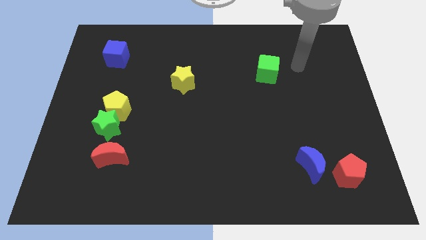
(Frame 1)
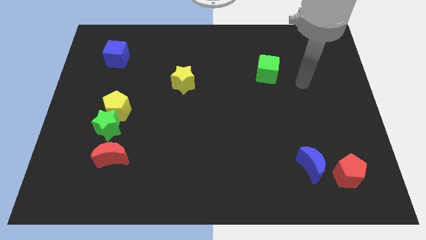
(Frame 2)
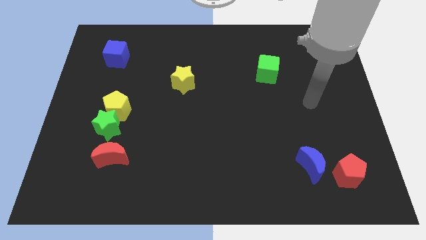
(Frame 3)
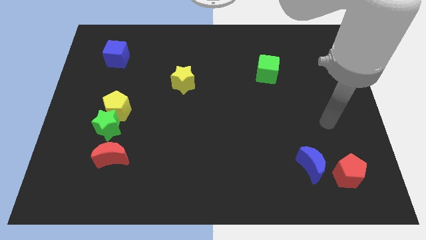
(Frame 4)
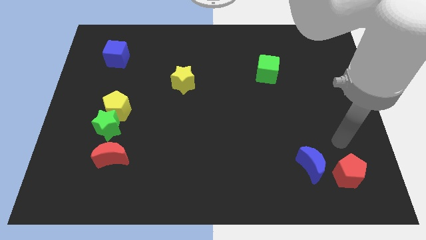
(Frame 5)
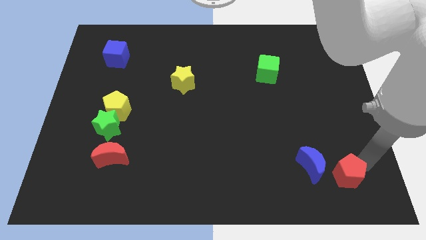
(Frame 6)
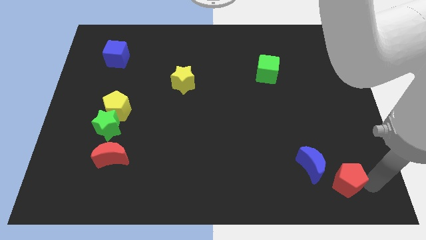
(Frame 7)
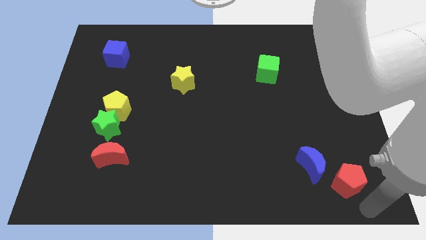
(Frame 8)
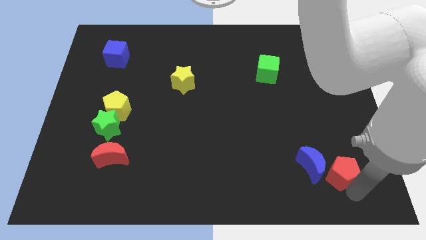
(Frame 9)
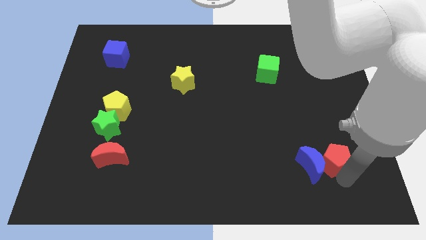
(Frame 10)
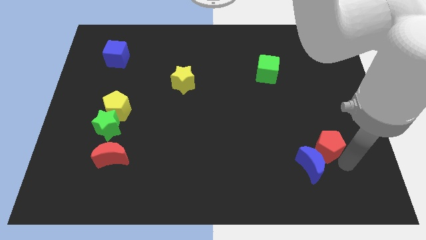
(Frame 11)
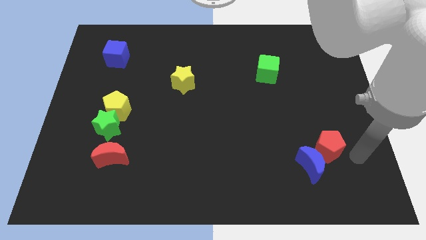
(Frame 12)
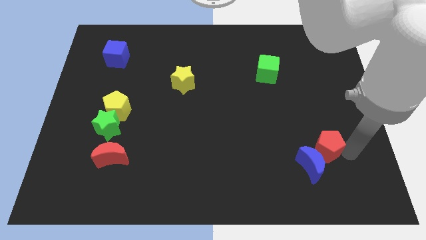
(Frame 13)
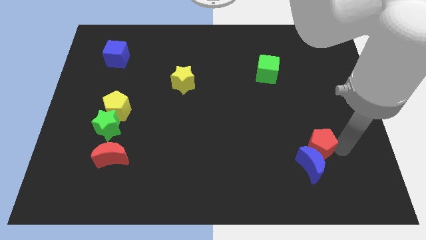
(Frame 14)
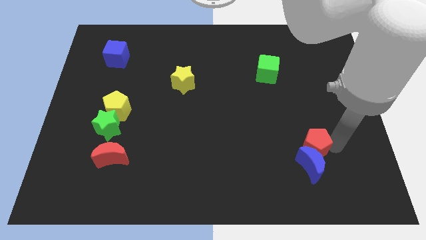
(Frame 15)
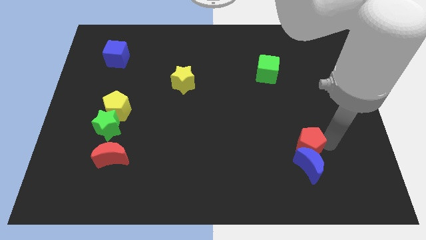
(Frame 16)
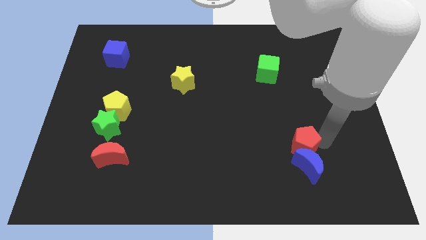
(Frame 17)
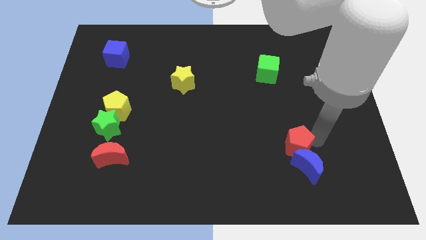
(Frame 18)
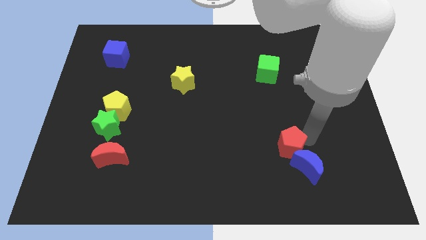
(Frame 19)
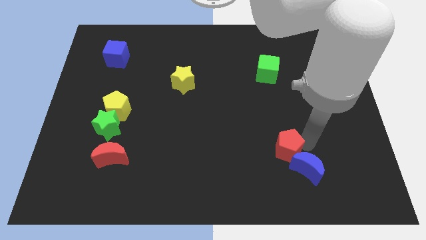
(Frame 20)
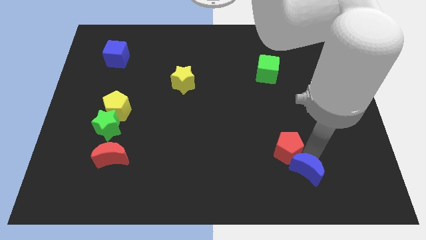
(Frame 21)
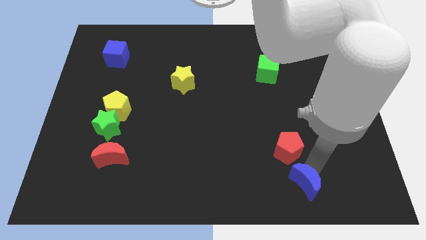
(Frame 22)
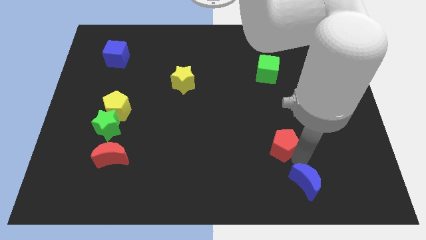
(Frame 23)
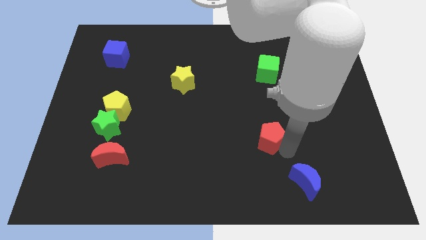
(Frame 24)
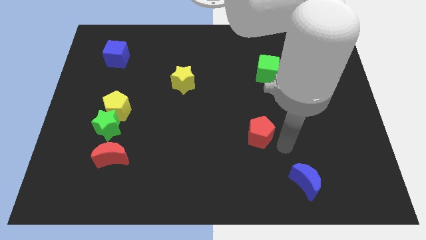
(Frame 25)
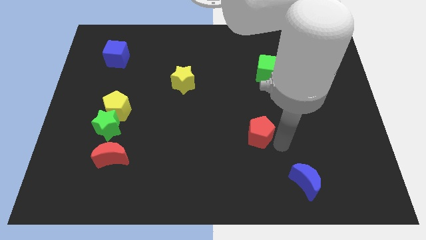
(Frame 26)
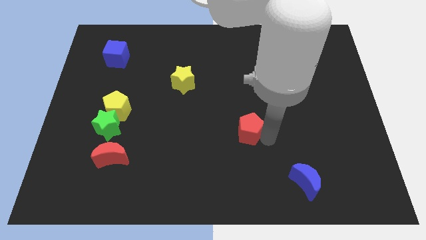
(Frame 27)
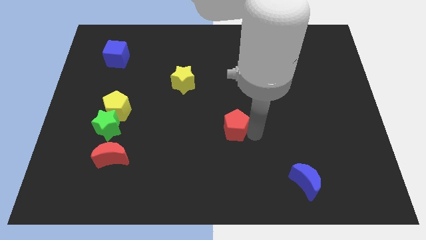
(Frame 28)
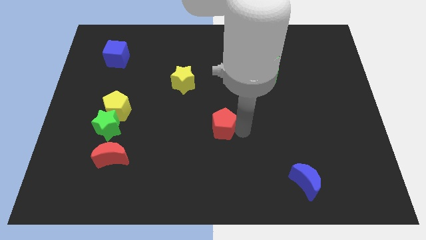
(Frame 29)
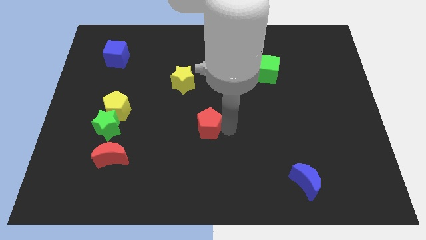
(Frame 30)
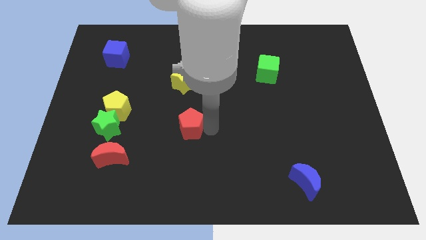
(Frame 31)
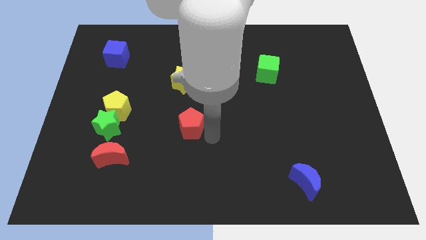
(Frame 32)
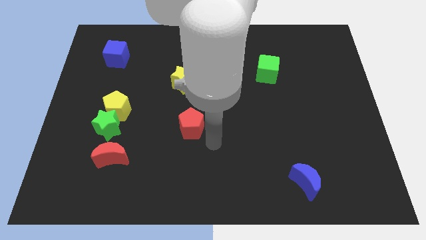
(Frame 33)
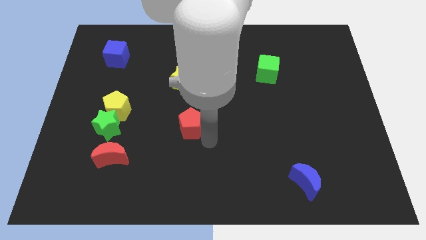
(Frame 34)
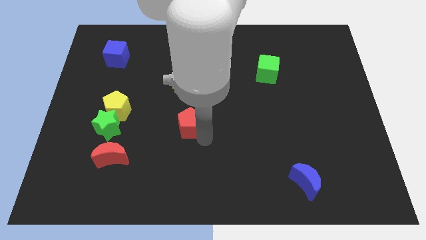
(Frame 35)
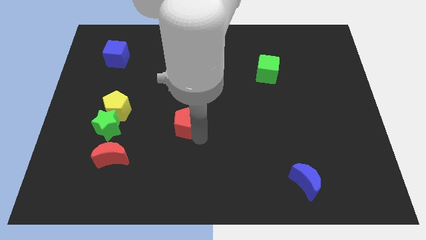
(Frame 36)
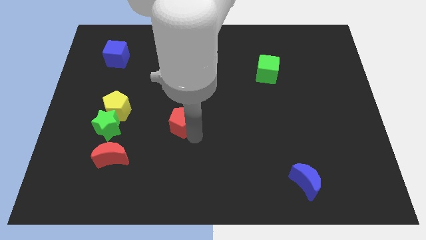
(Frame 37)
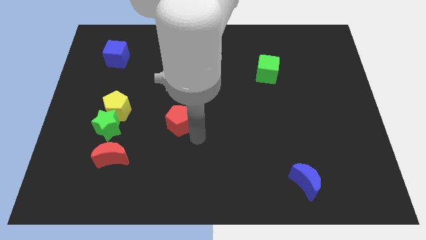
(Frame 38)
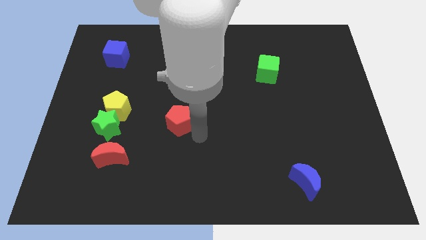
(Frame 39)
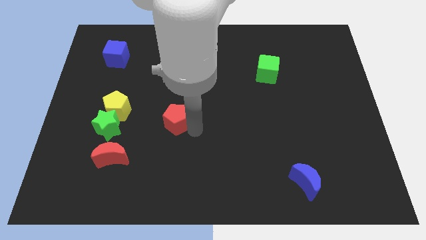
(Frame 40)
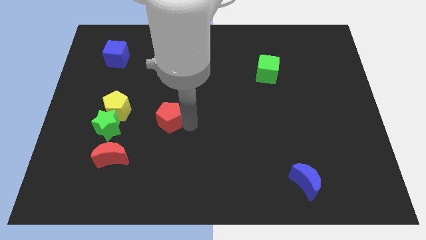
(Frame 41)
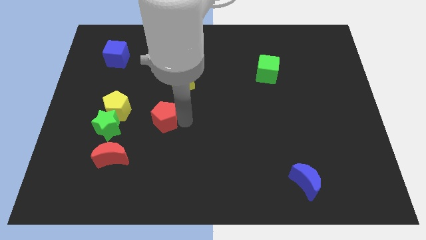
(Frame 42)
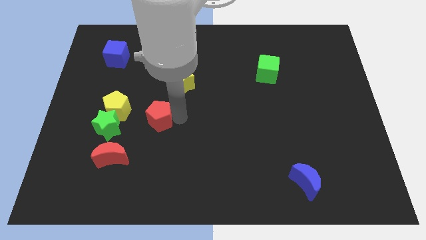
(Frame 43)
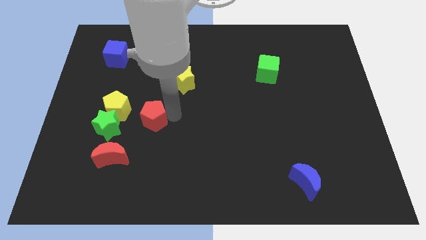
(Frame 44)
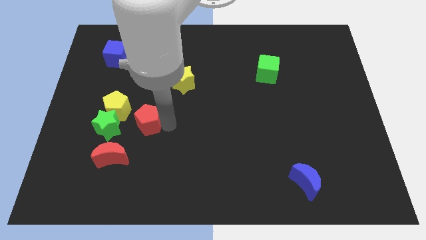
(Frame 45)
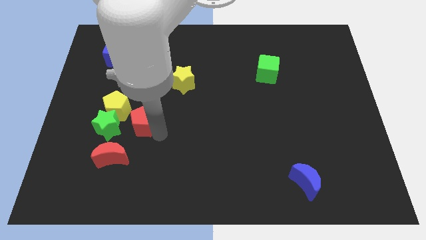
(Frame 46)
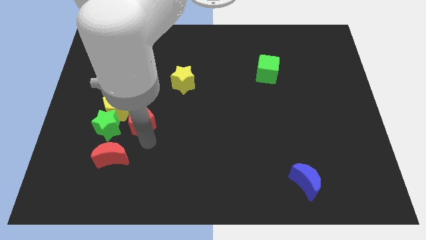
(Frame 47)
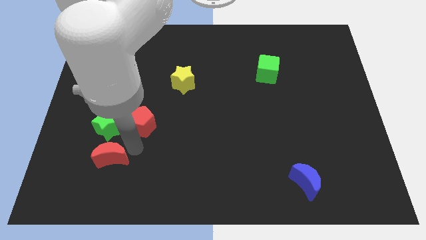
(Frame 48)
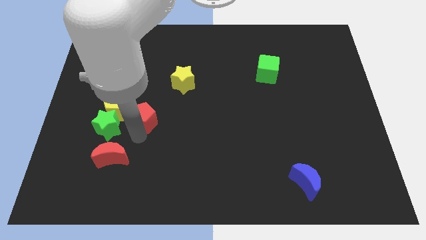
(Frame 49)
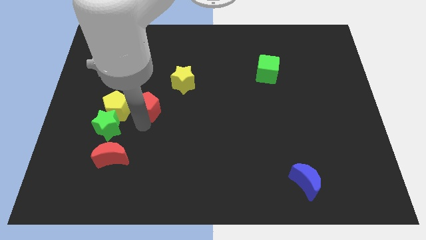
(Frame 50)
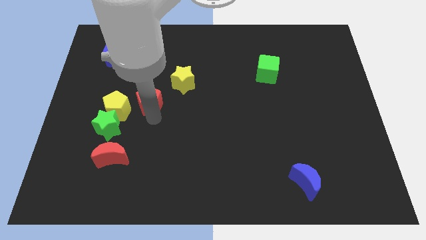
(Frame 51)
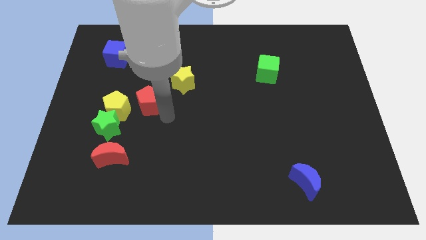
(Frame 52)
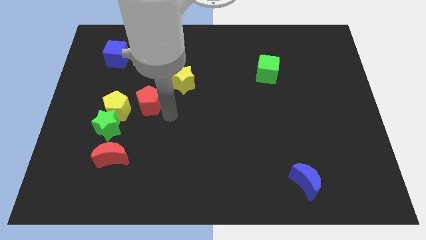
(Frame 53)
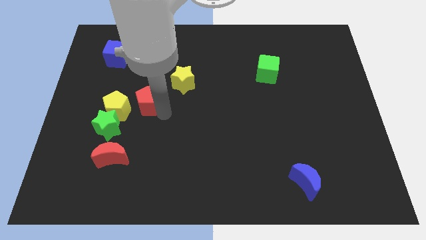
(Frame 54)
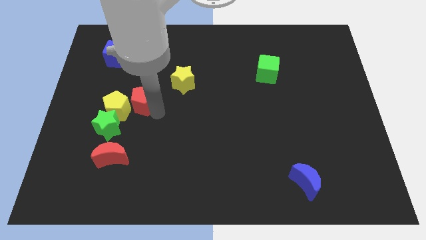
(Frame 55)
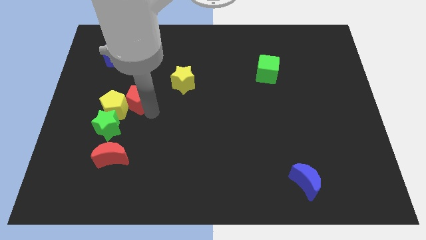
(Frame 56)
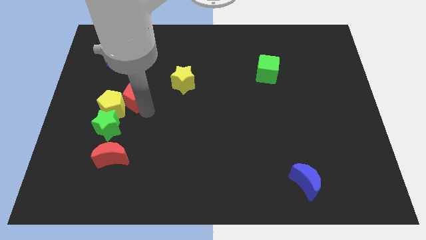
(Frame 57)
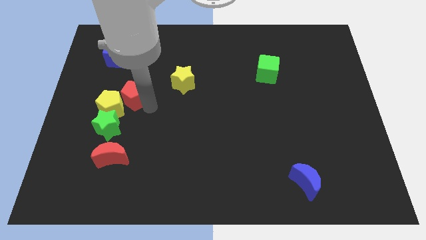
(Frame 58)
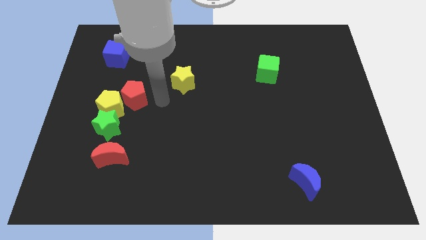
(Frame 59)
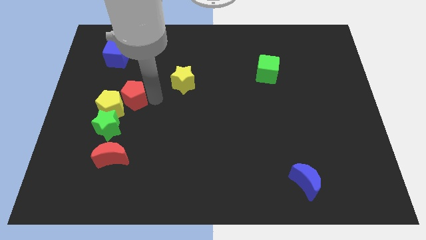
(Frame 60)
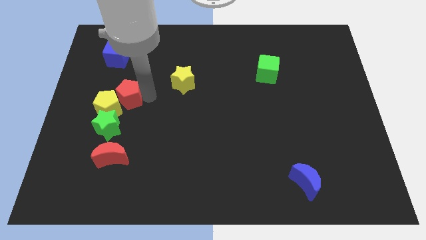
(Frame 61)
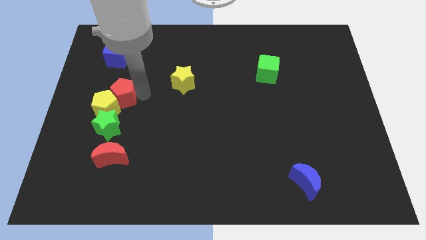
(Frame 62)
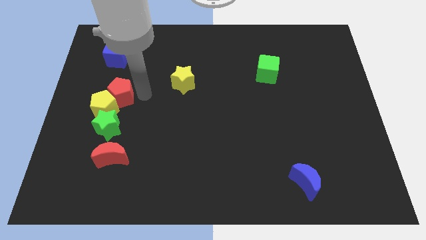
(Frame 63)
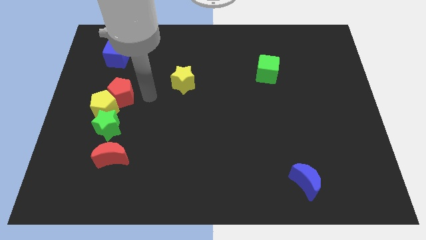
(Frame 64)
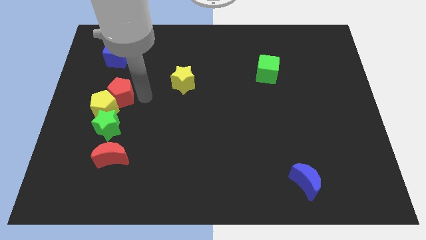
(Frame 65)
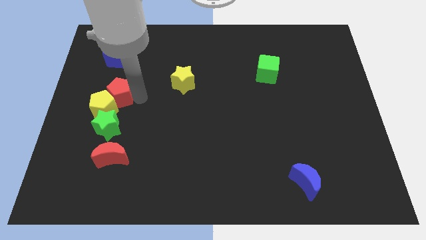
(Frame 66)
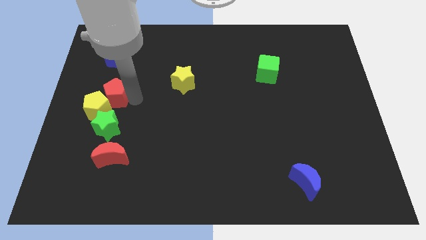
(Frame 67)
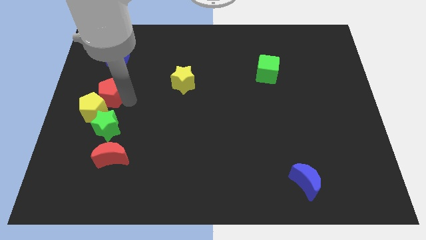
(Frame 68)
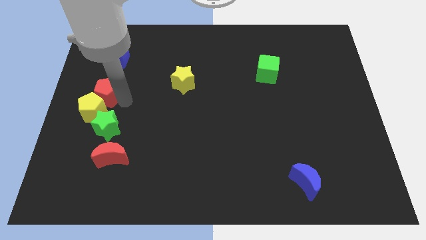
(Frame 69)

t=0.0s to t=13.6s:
push the red pentagon to the center left
